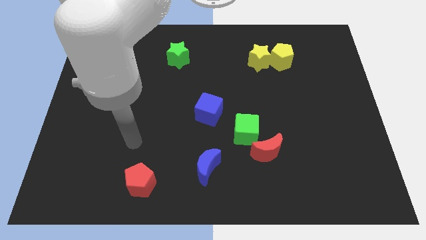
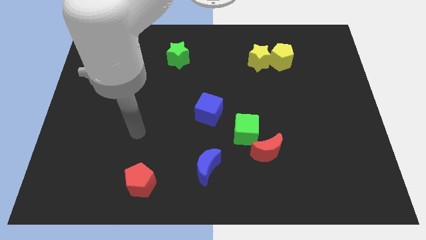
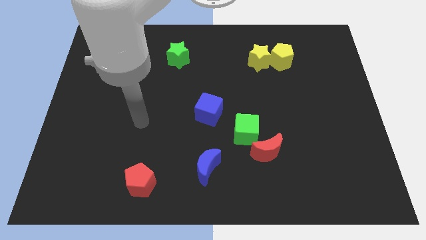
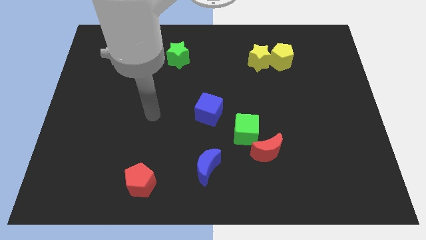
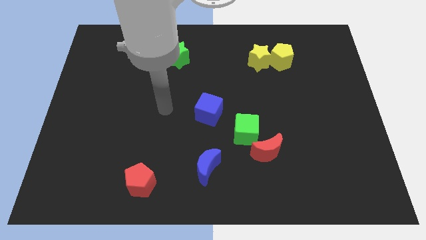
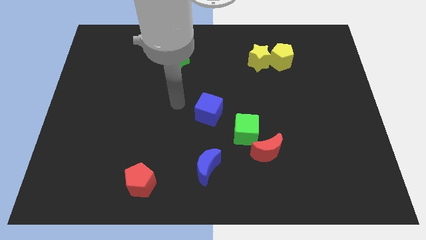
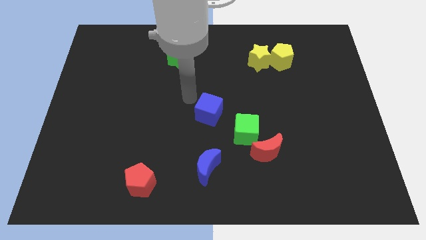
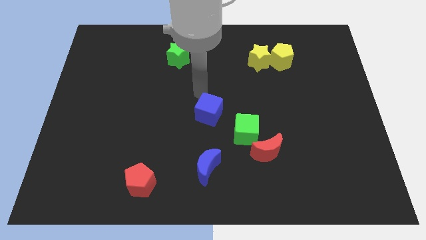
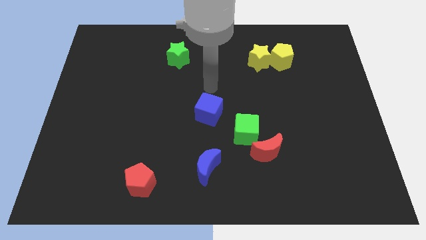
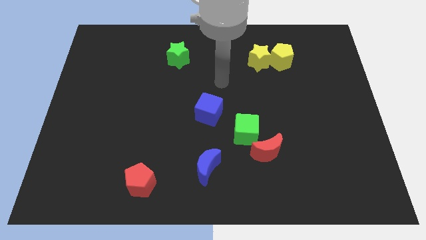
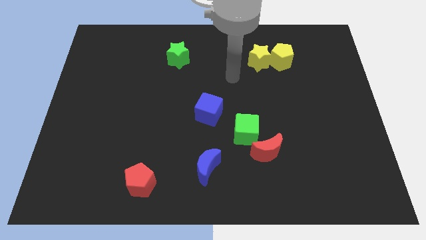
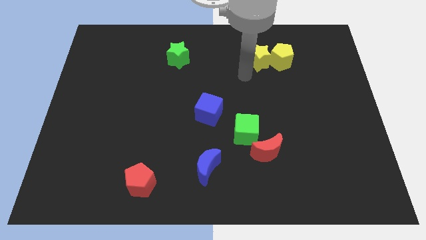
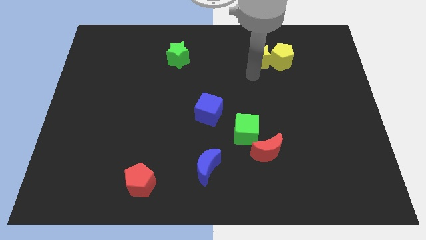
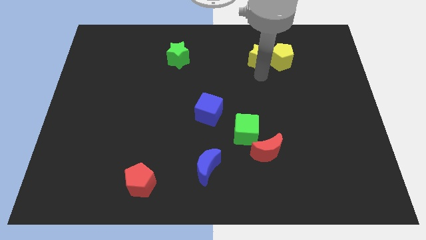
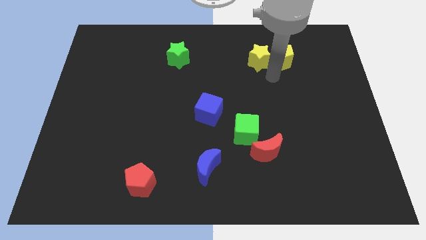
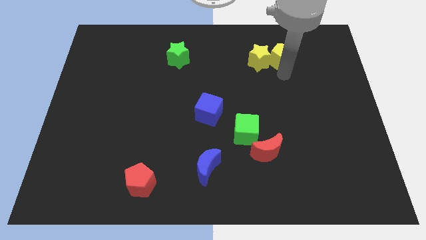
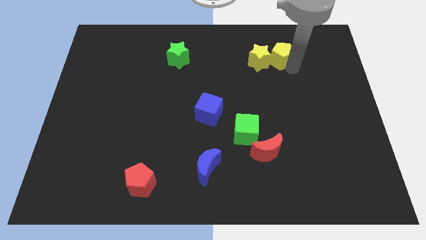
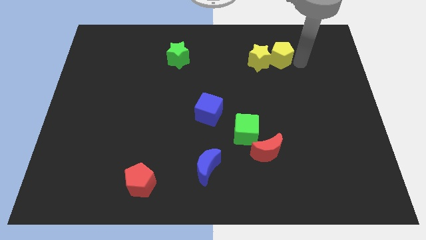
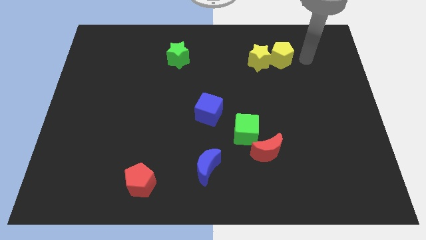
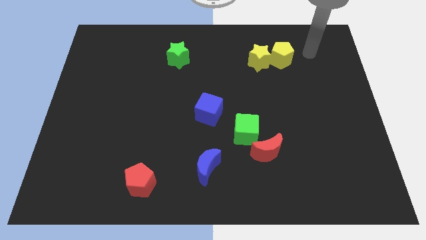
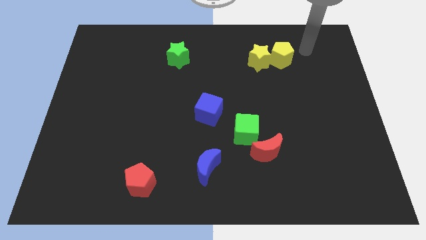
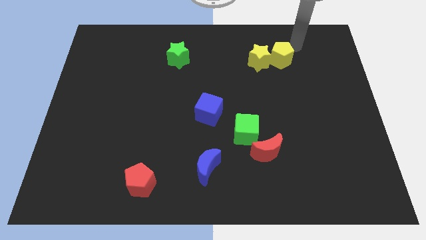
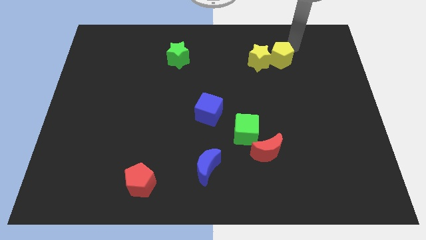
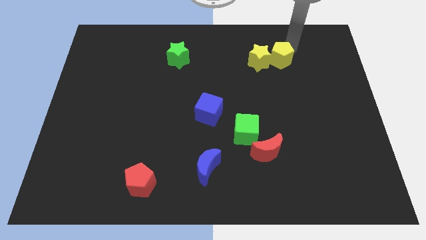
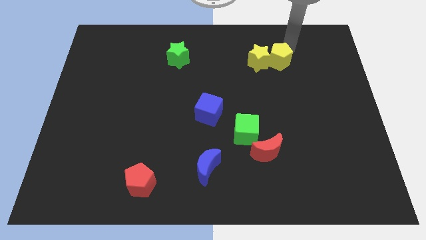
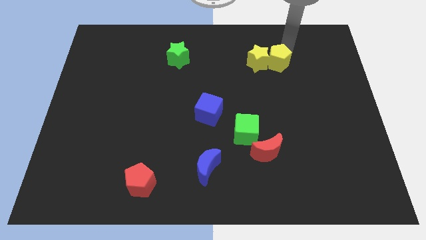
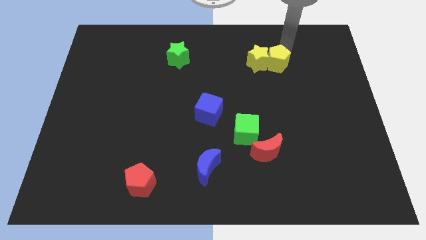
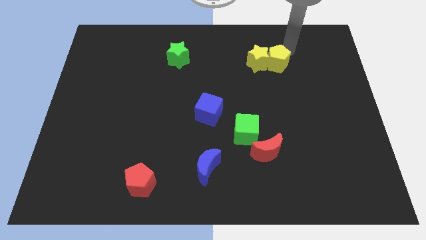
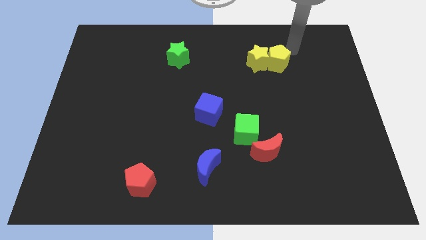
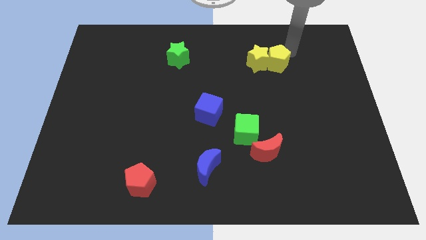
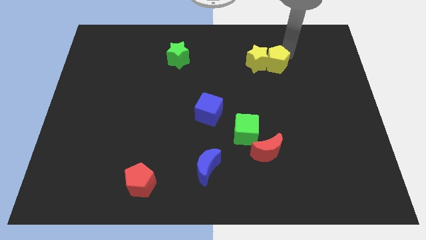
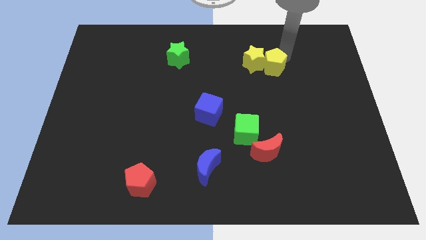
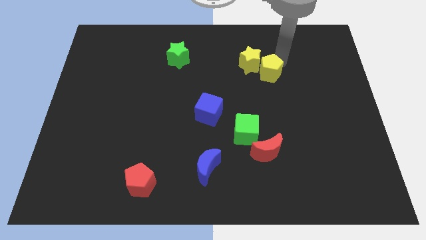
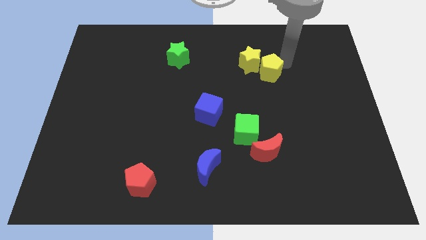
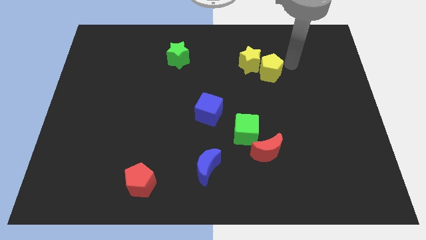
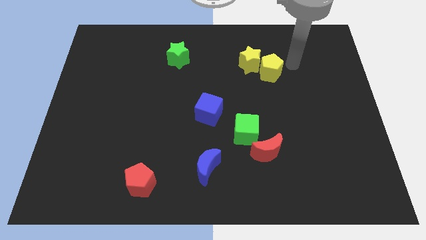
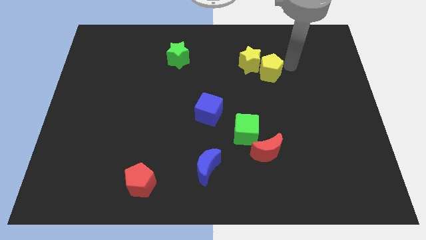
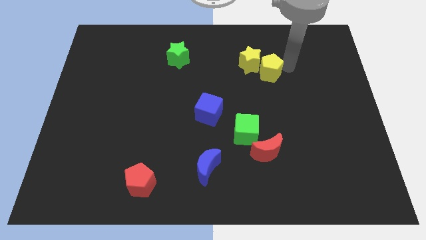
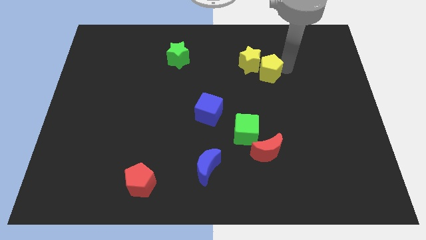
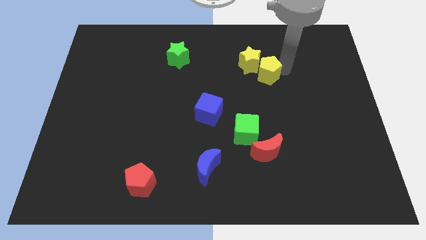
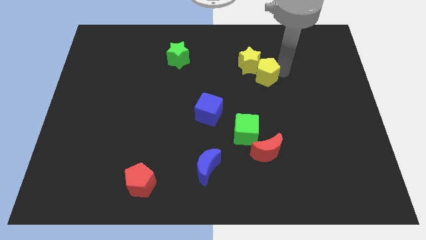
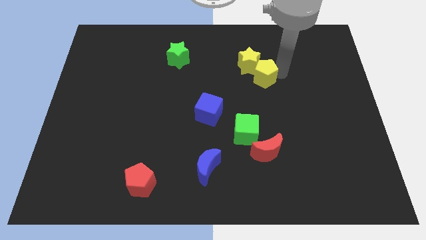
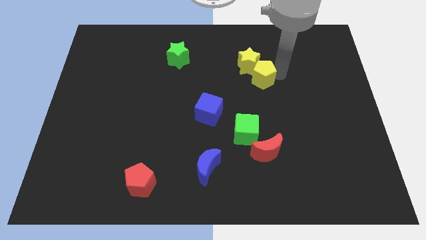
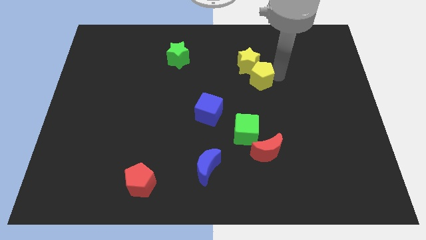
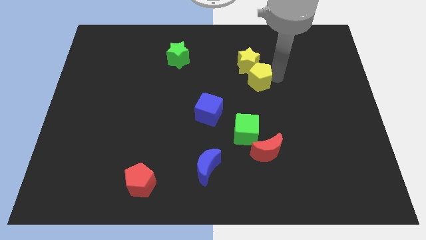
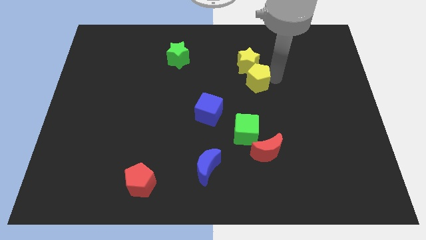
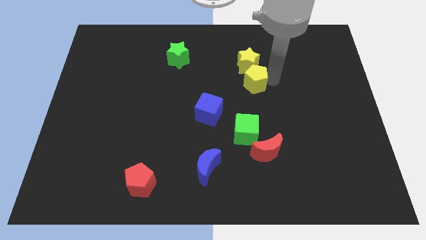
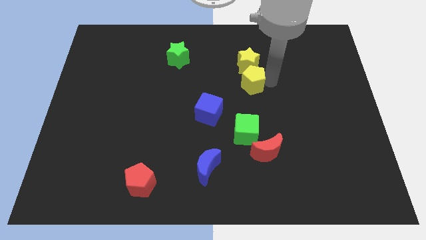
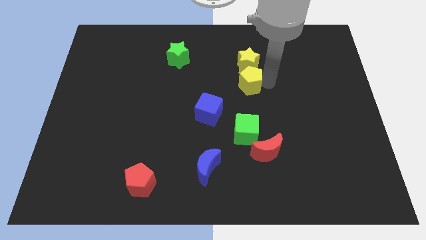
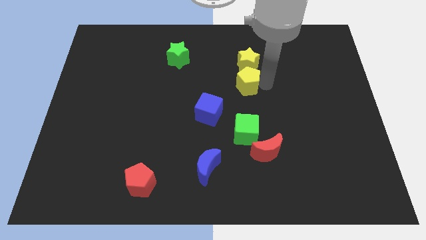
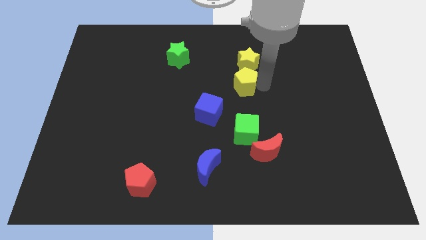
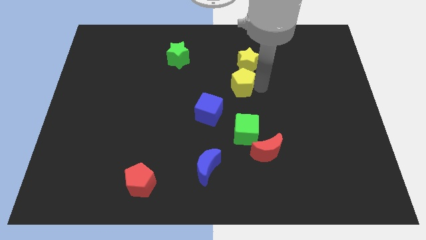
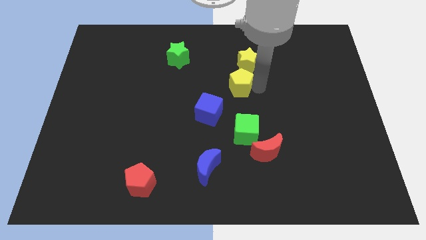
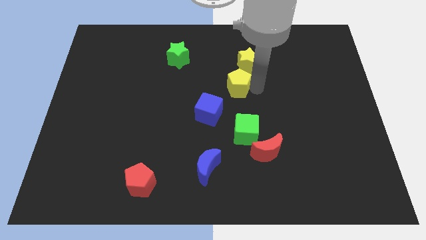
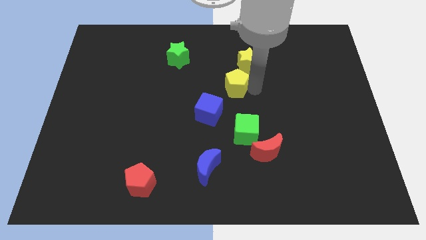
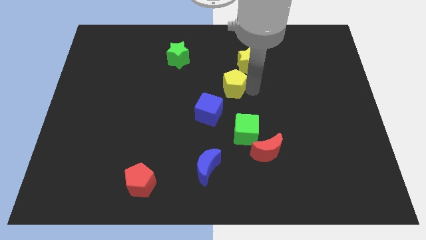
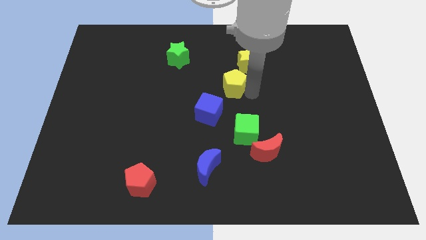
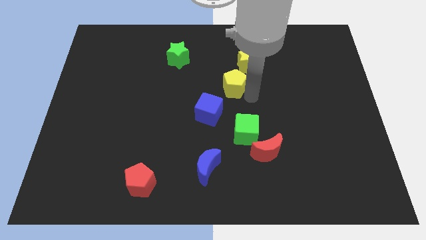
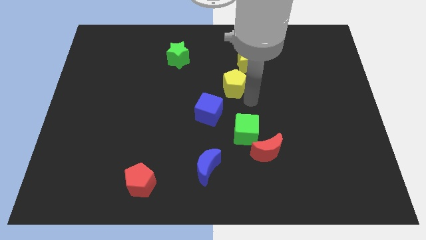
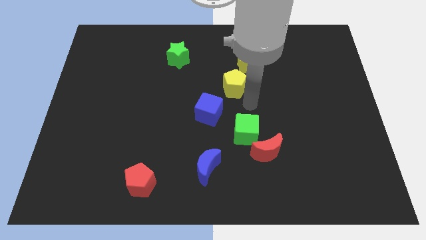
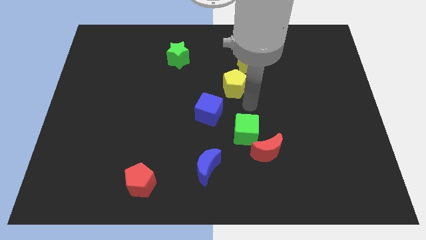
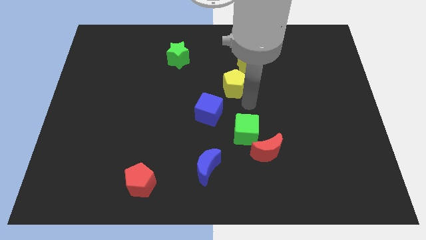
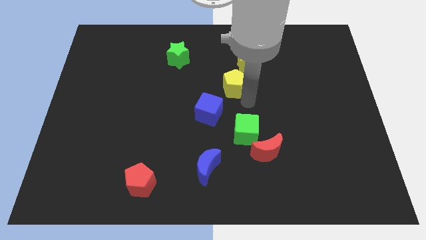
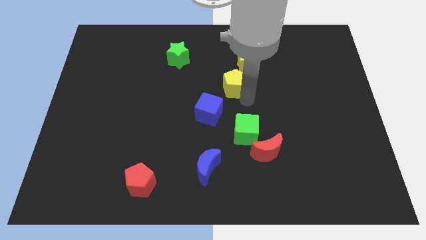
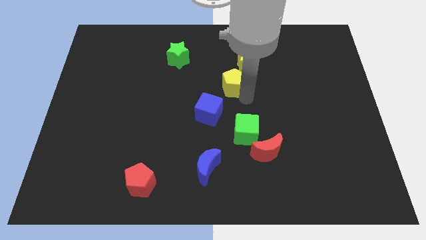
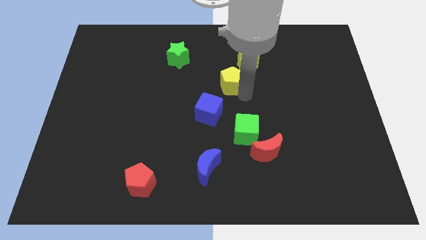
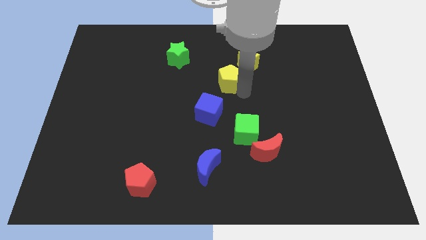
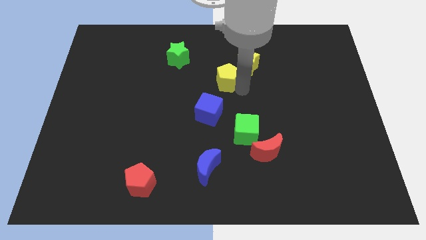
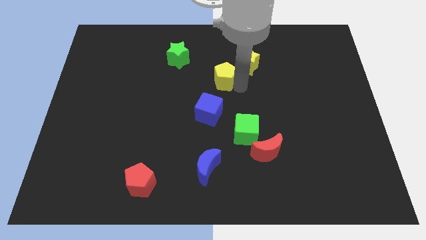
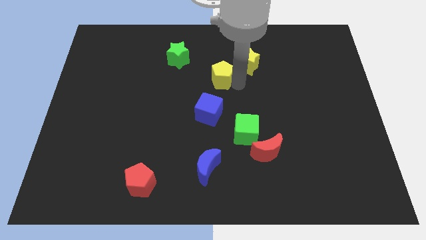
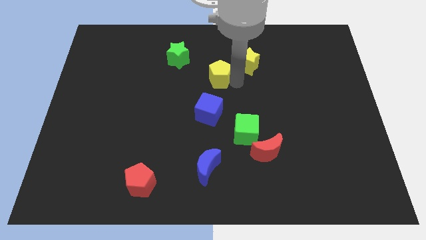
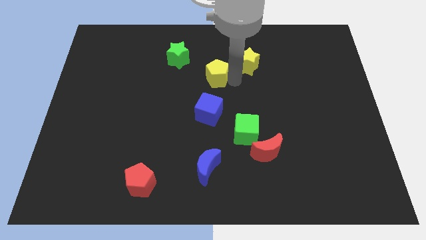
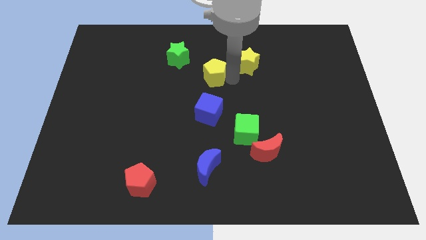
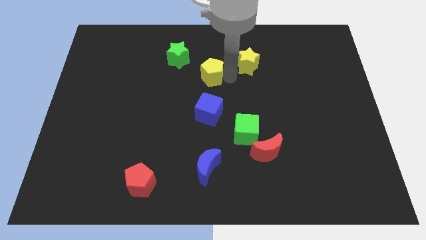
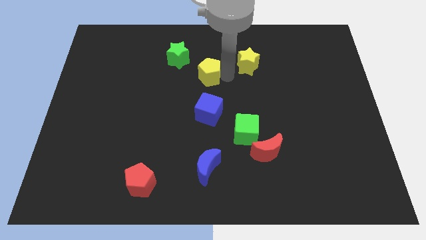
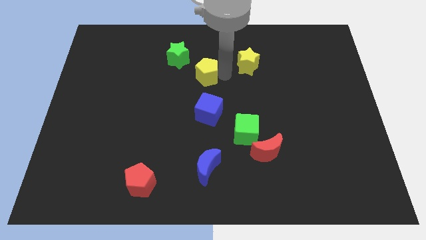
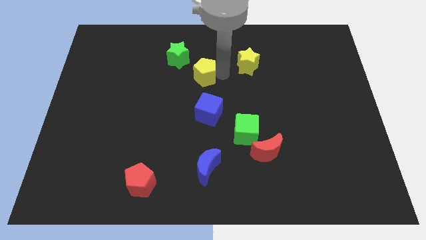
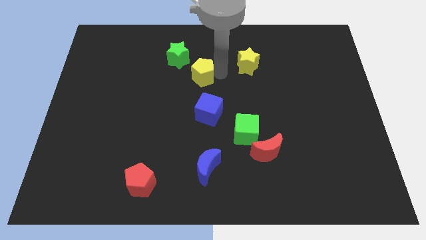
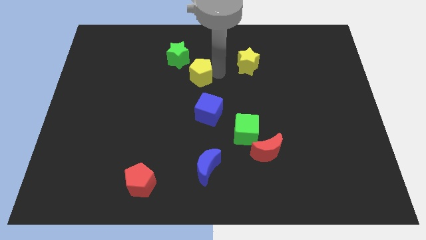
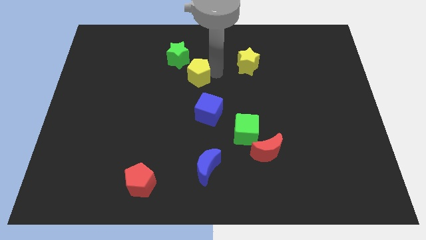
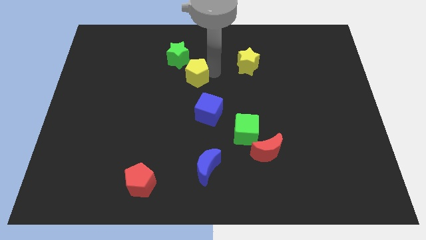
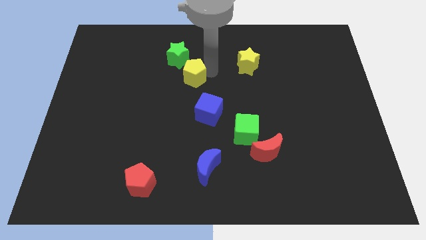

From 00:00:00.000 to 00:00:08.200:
slide the yellow pentagon below the green star
